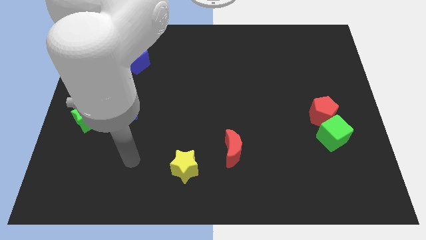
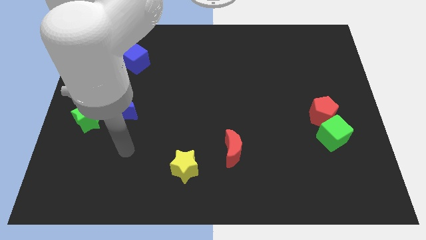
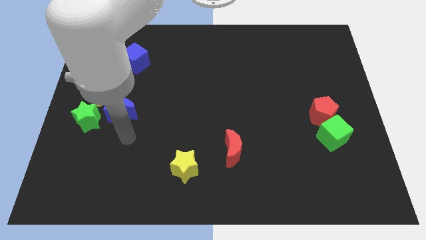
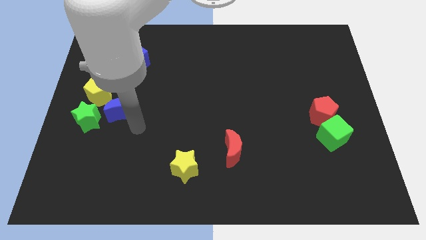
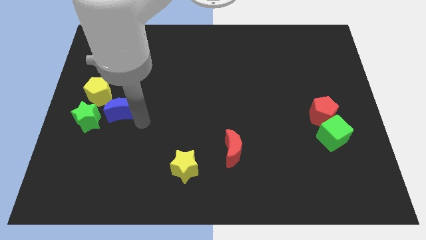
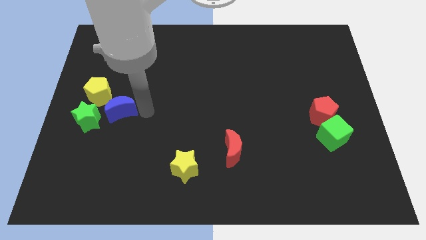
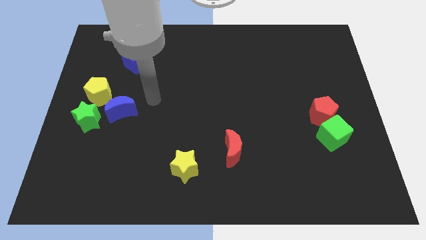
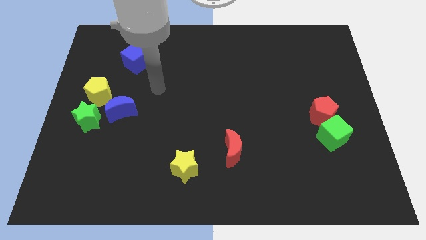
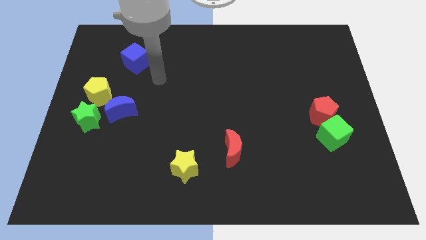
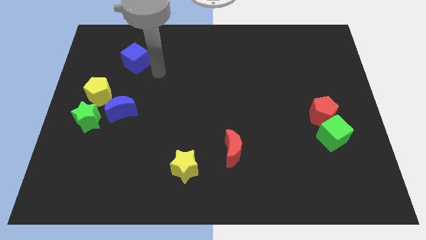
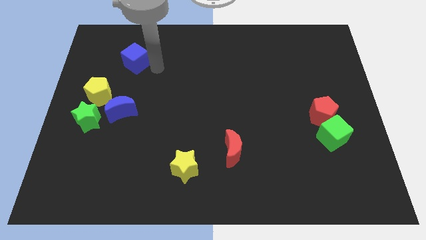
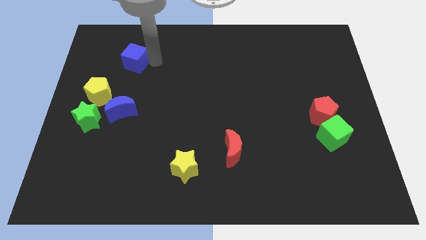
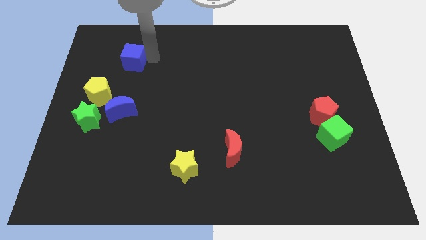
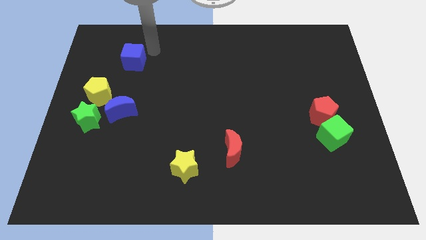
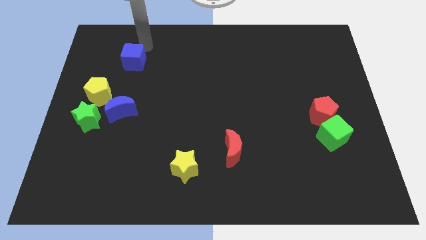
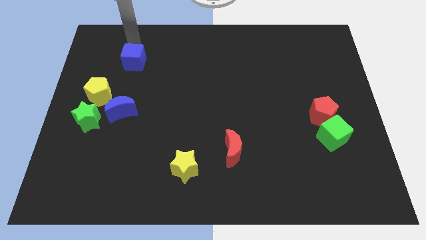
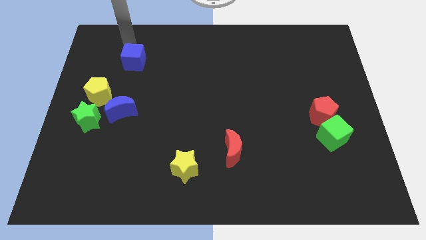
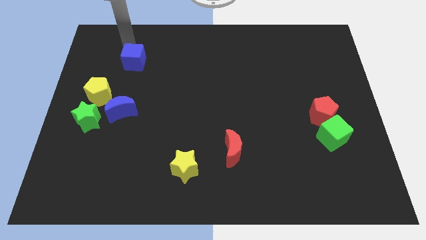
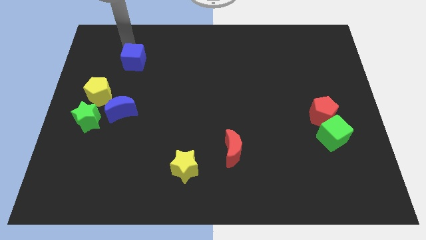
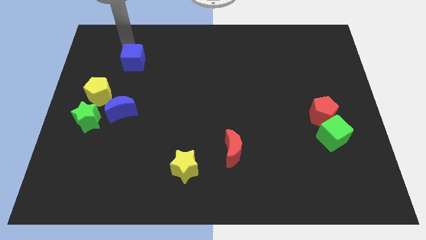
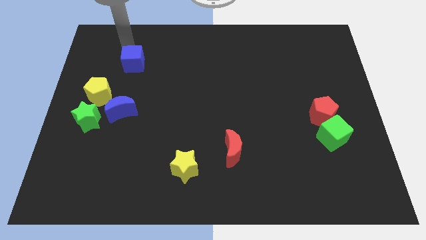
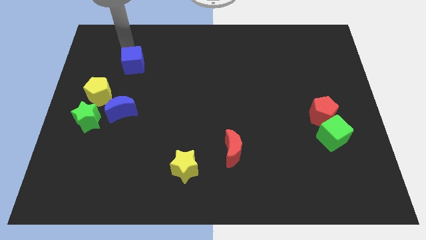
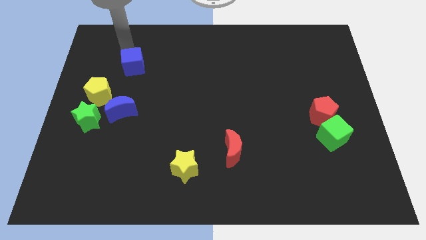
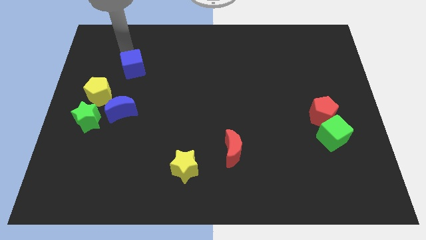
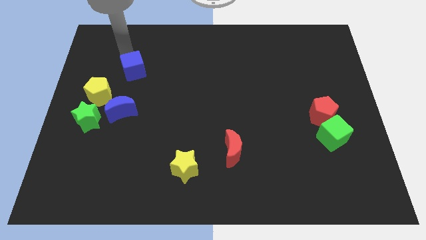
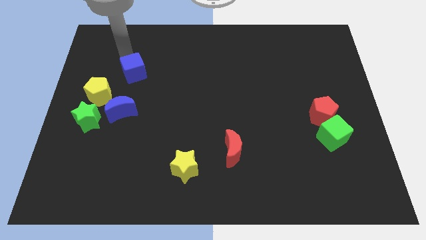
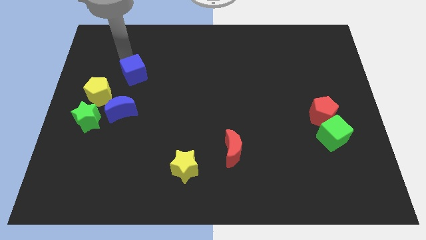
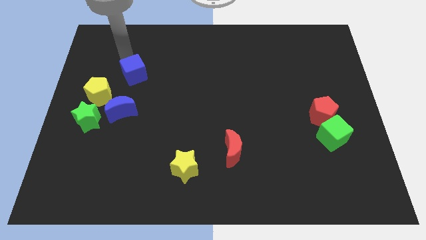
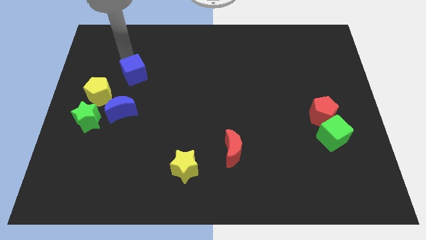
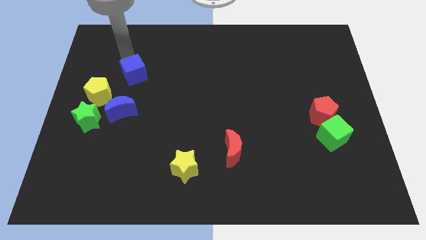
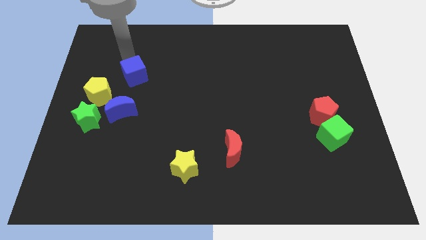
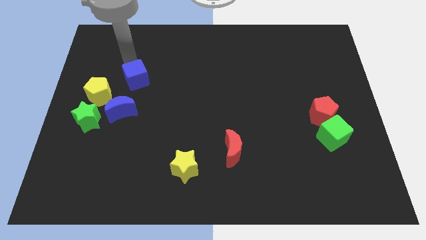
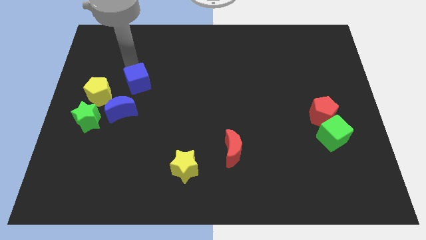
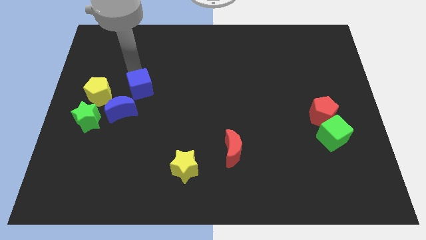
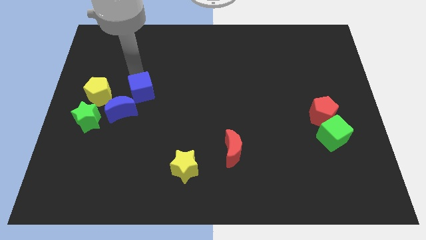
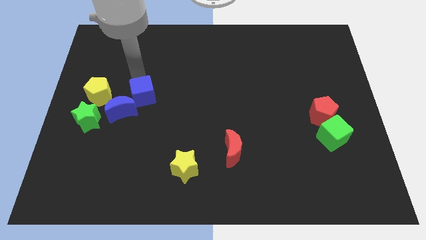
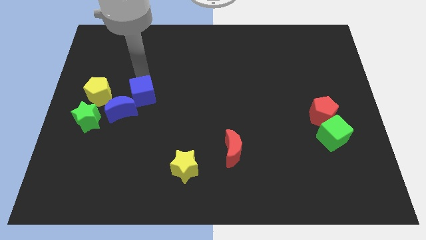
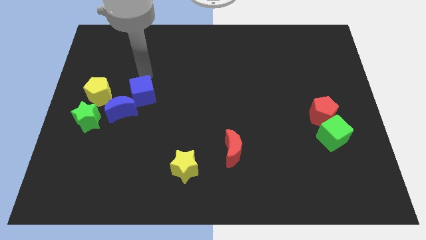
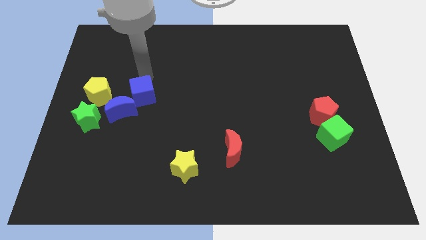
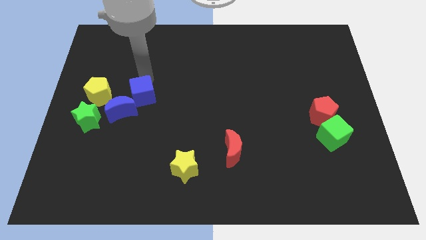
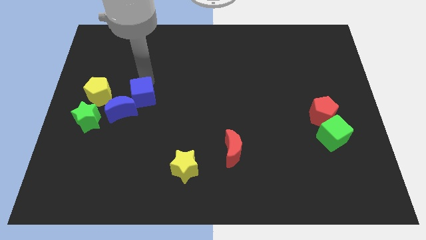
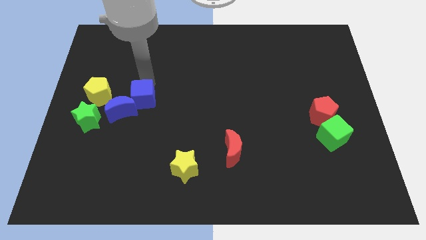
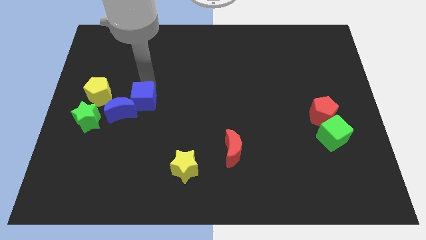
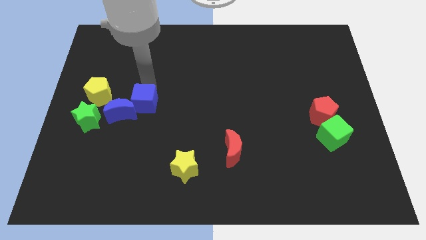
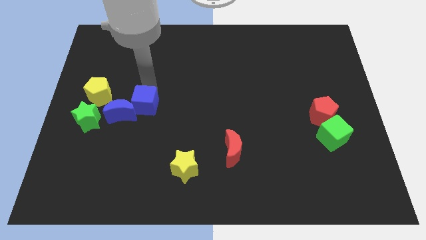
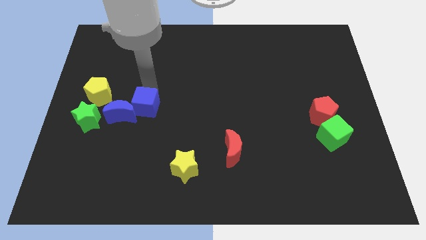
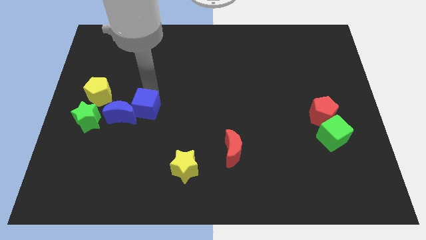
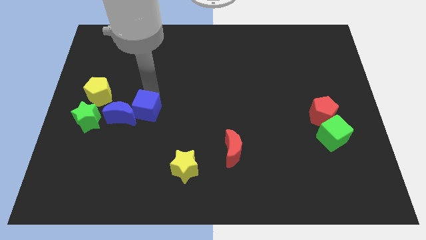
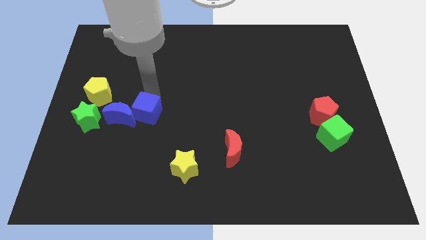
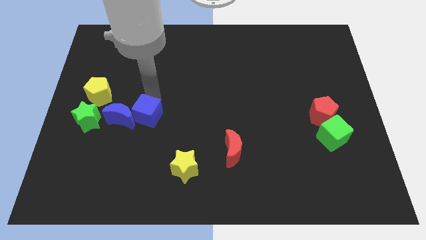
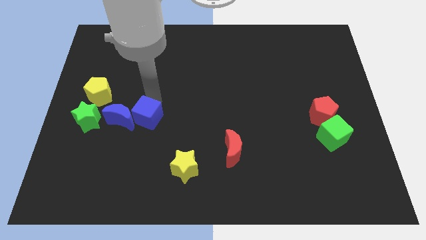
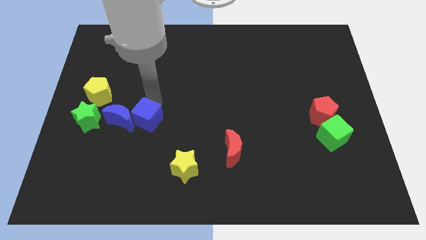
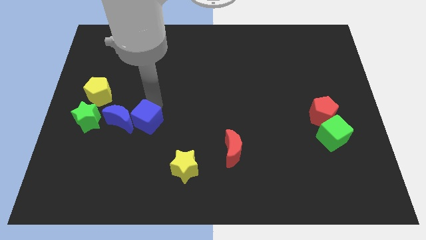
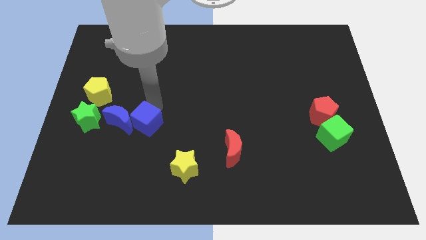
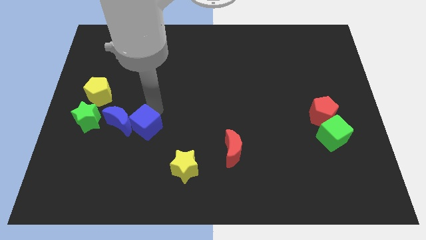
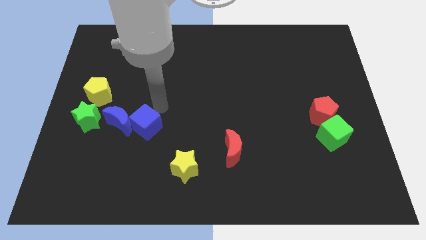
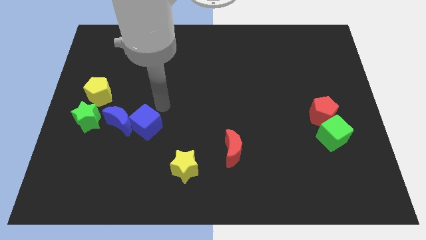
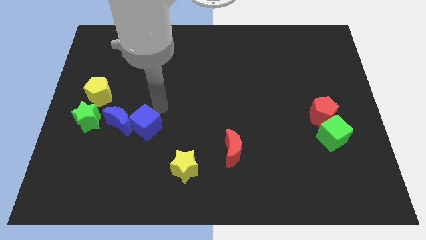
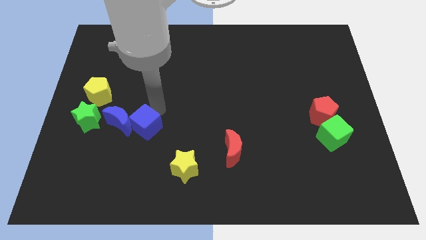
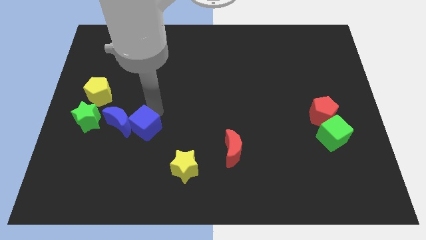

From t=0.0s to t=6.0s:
move the blue cube downwards

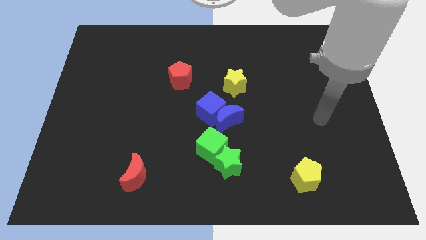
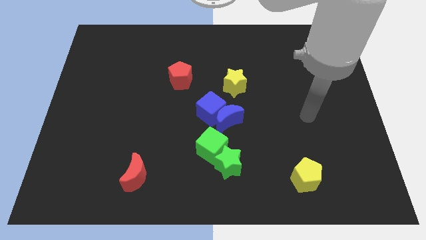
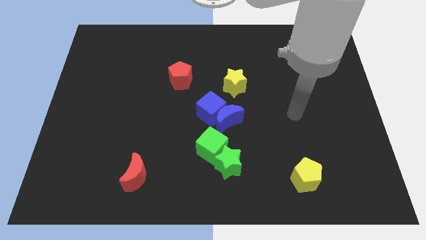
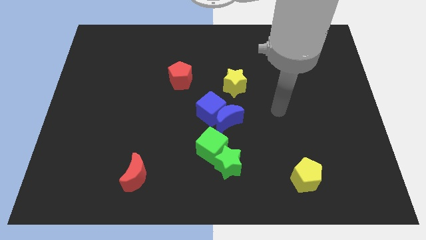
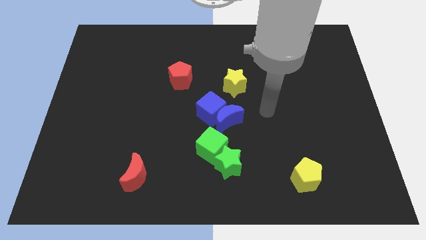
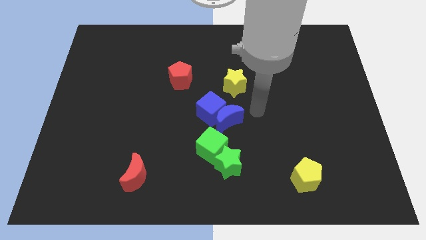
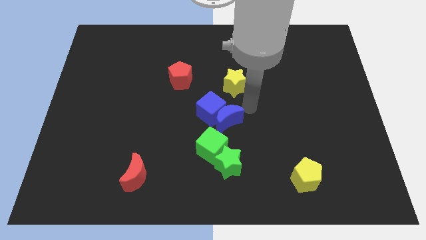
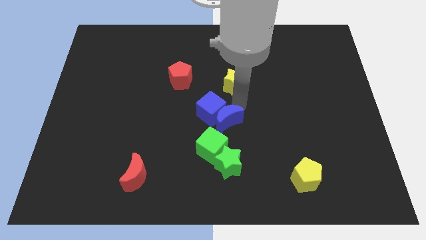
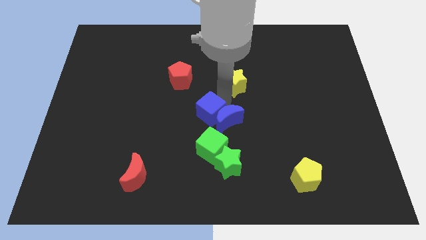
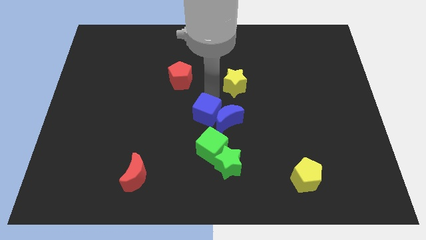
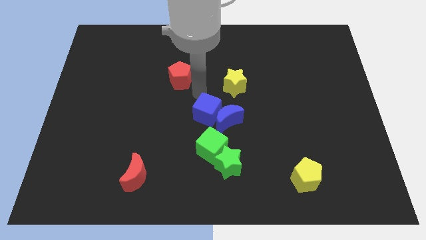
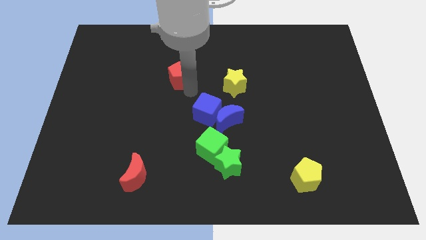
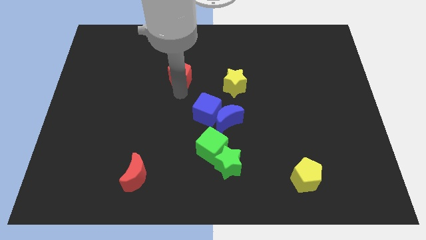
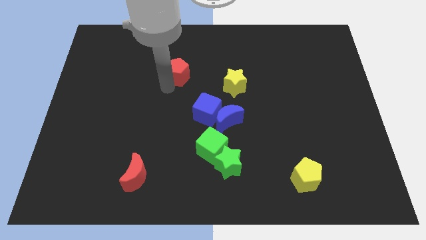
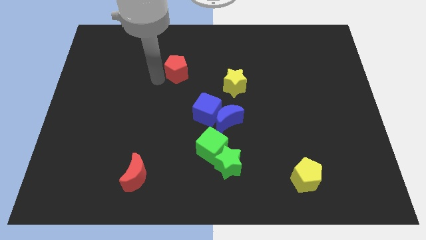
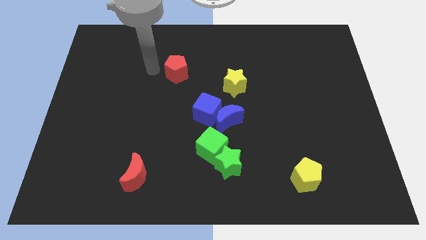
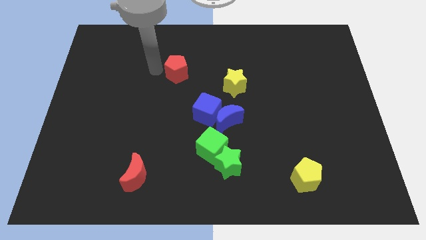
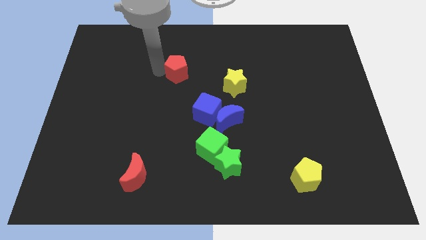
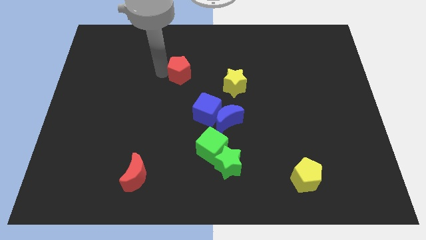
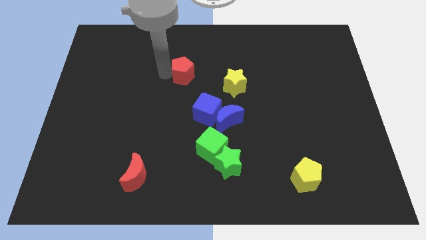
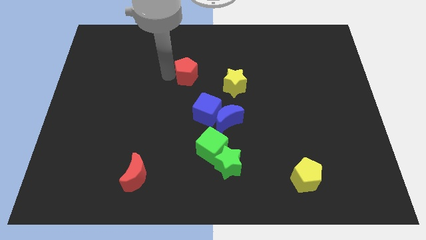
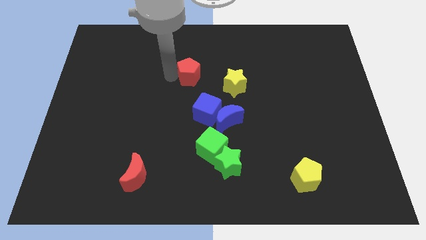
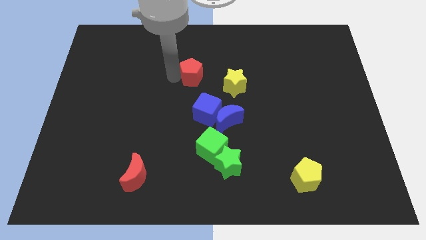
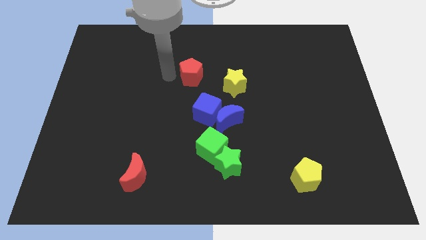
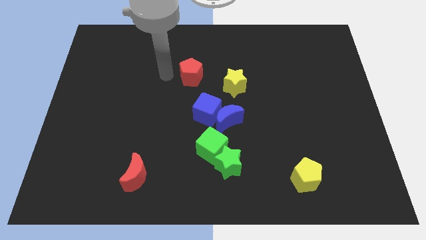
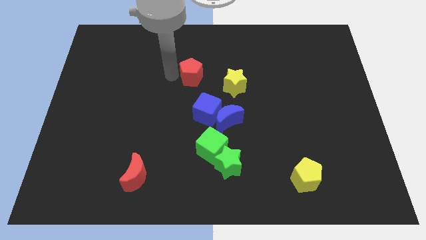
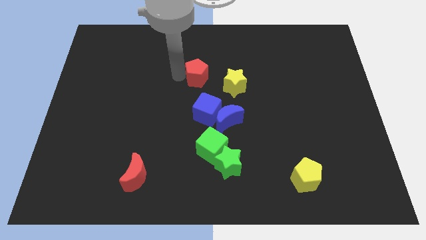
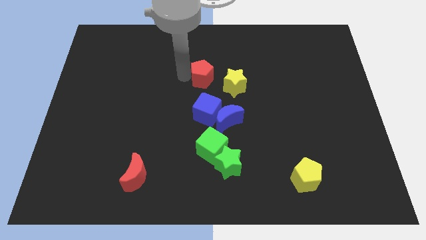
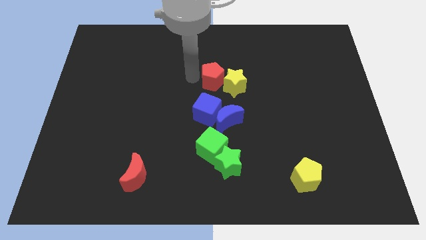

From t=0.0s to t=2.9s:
slightly slide the red pentagon to the right
